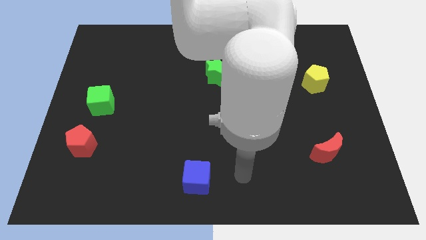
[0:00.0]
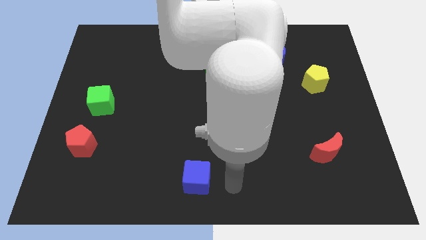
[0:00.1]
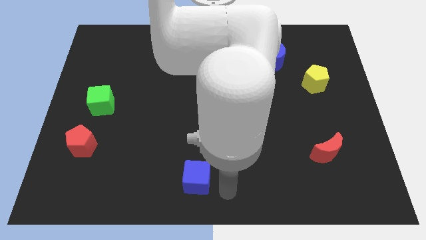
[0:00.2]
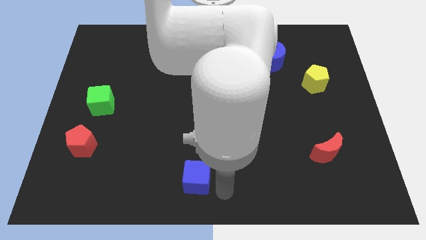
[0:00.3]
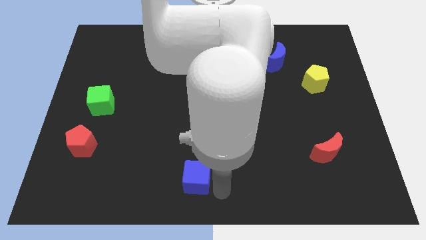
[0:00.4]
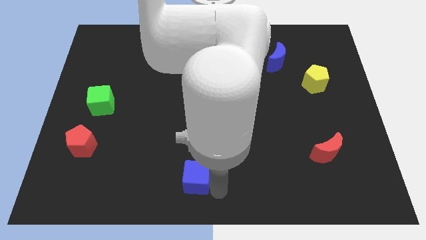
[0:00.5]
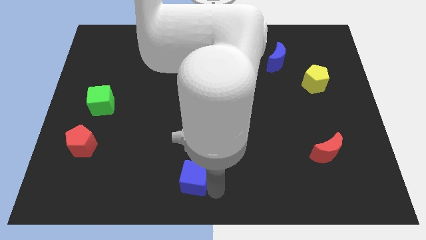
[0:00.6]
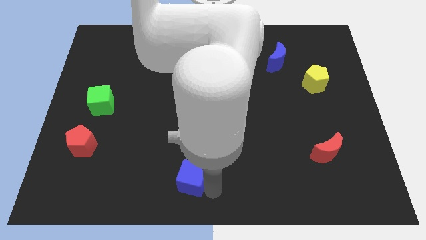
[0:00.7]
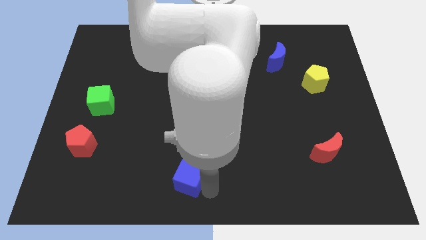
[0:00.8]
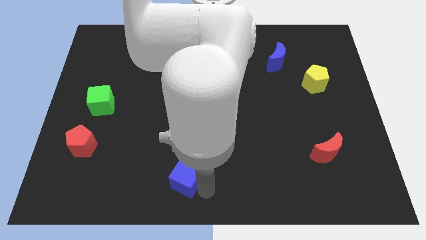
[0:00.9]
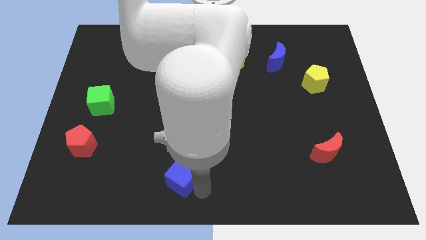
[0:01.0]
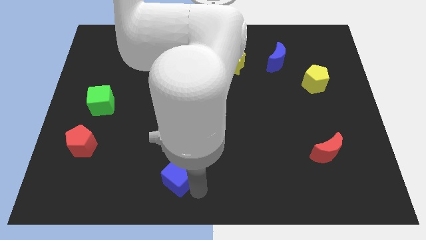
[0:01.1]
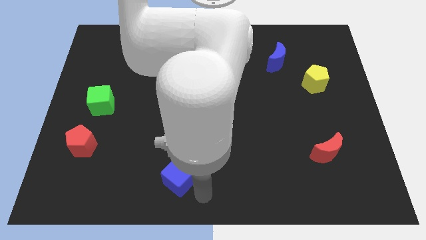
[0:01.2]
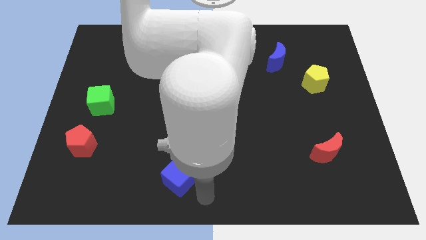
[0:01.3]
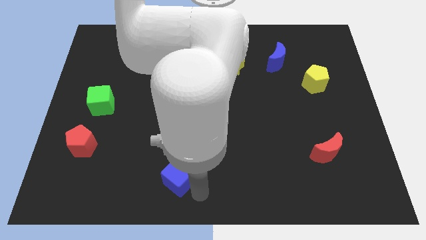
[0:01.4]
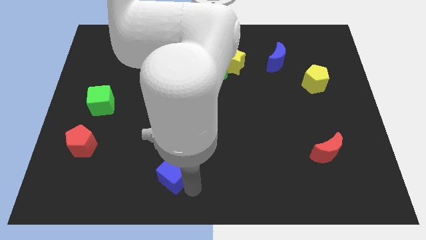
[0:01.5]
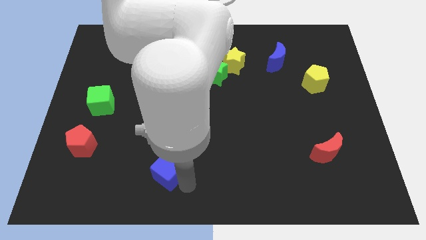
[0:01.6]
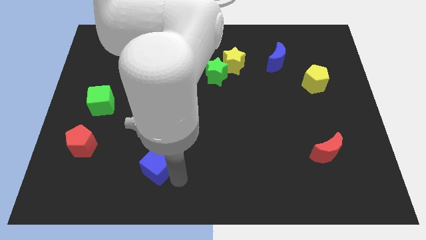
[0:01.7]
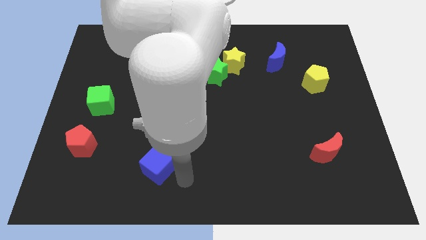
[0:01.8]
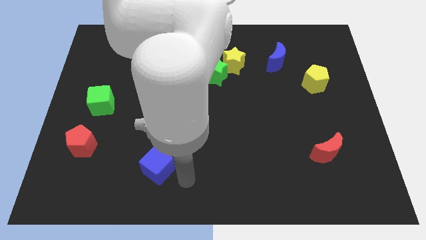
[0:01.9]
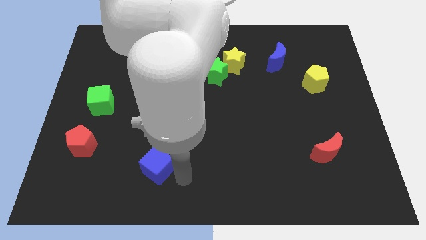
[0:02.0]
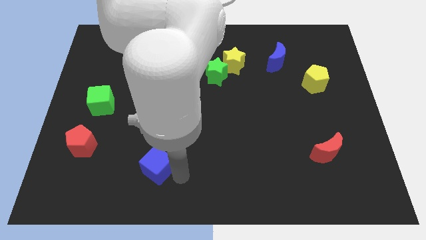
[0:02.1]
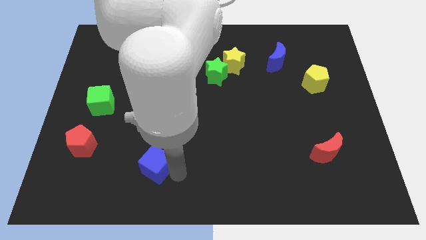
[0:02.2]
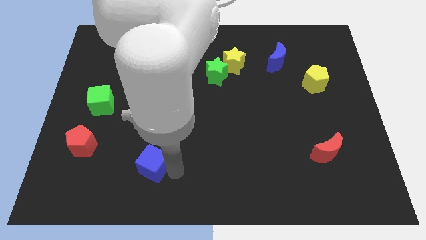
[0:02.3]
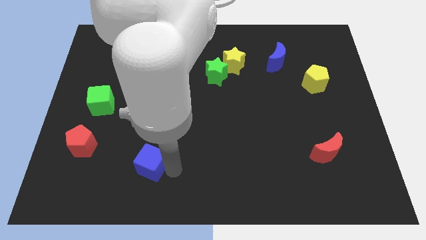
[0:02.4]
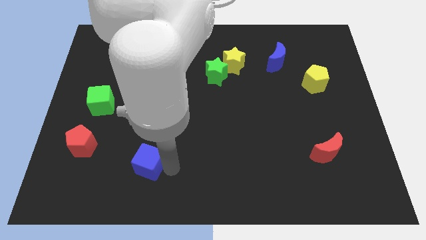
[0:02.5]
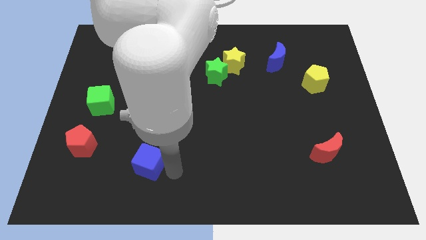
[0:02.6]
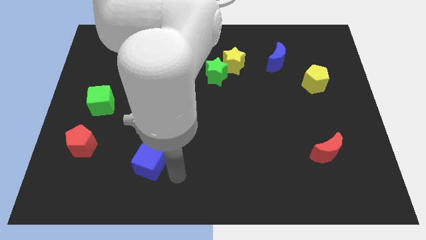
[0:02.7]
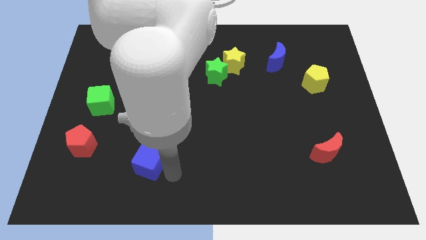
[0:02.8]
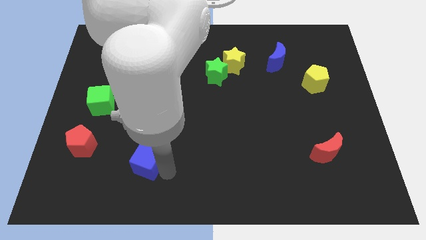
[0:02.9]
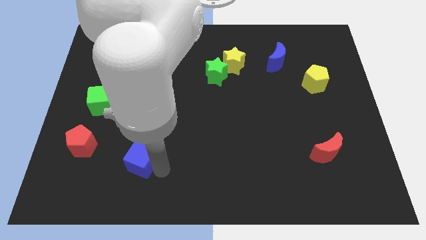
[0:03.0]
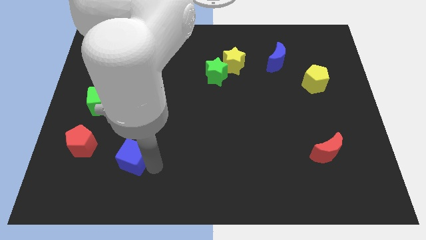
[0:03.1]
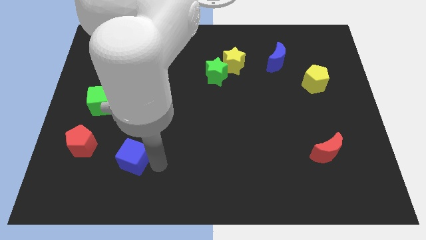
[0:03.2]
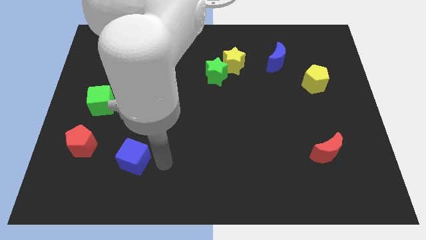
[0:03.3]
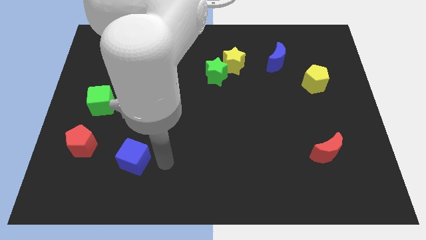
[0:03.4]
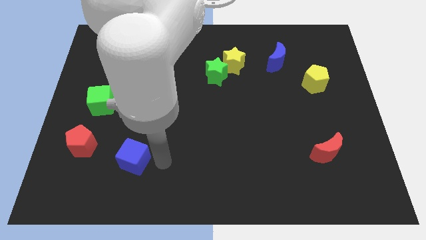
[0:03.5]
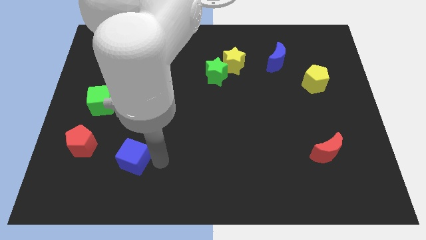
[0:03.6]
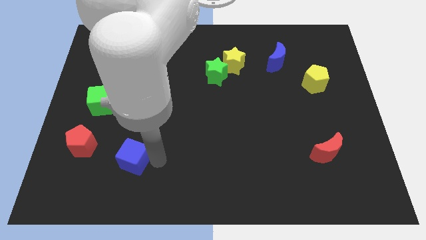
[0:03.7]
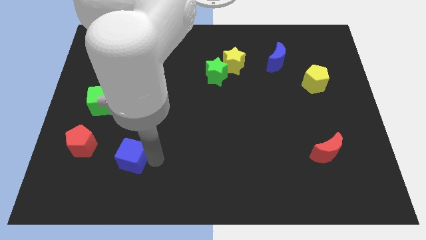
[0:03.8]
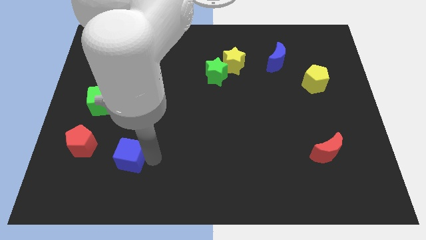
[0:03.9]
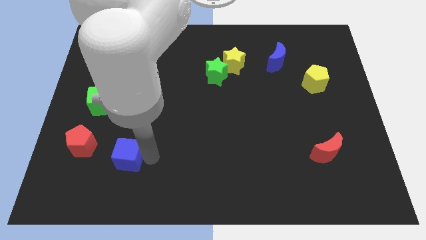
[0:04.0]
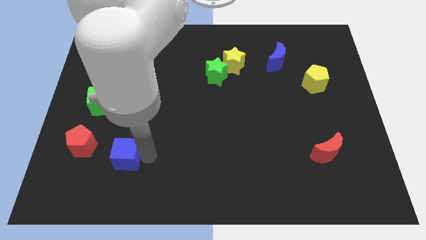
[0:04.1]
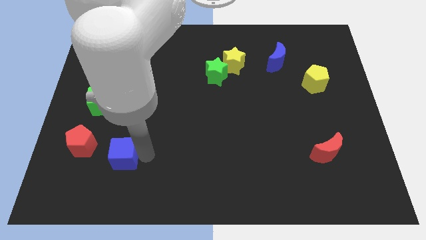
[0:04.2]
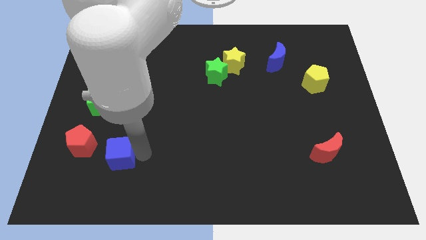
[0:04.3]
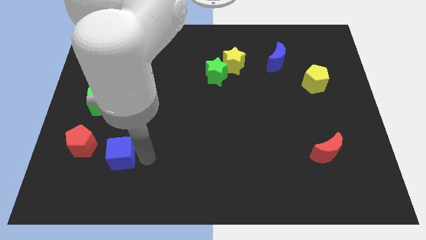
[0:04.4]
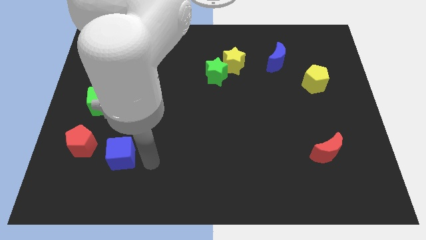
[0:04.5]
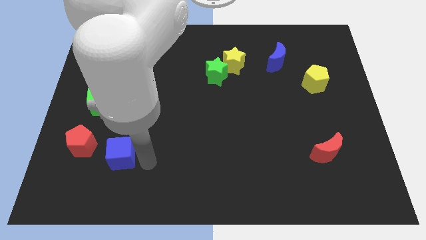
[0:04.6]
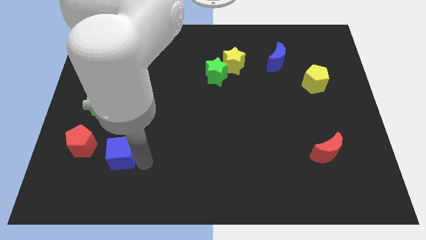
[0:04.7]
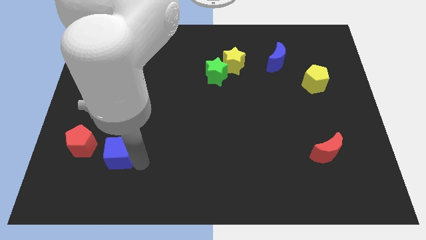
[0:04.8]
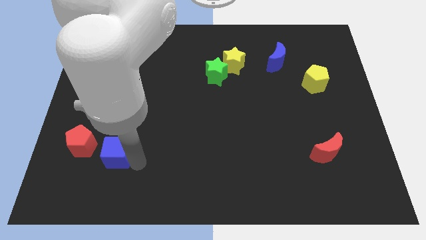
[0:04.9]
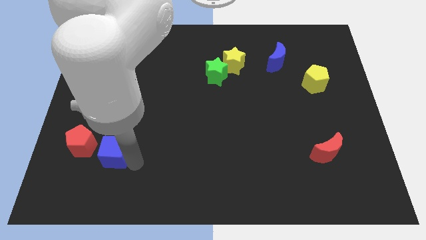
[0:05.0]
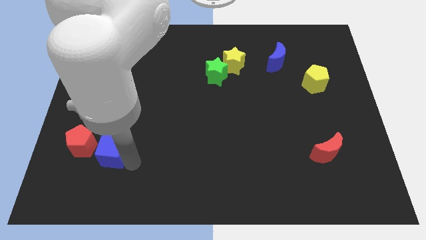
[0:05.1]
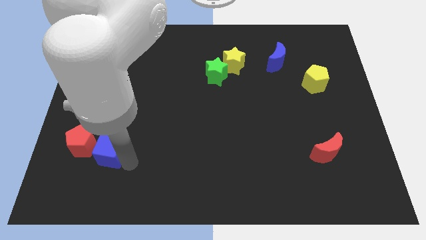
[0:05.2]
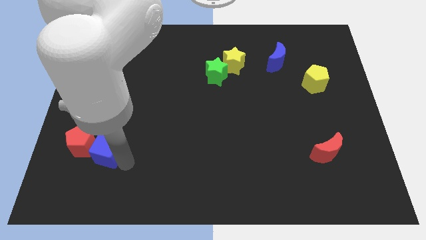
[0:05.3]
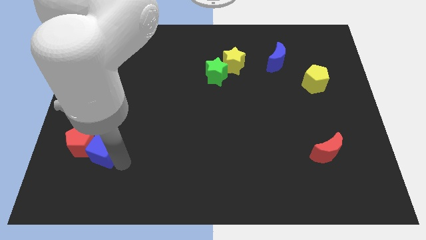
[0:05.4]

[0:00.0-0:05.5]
push the blue cube next to the red pentagon

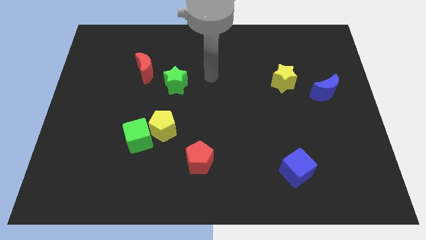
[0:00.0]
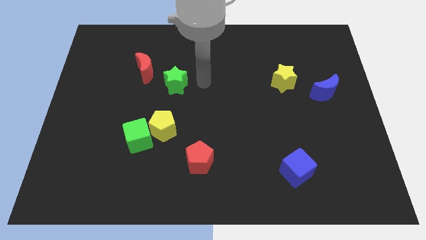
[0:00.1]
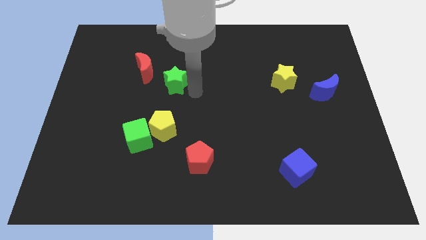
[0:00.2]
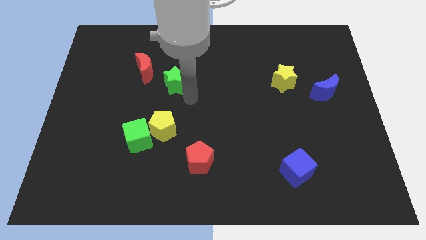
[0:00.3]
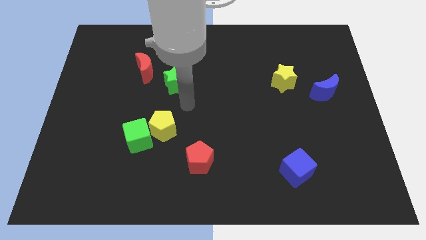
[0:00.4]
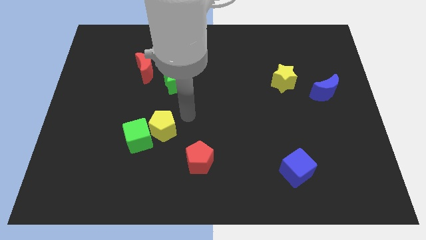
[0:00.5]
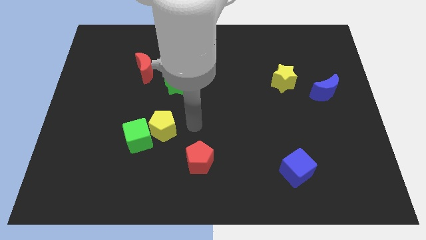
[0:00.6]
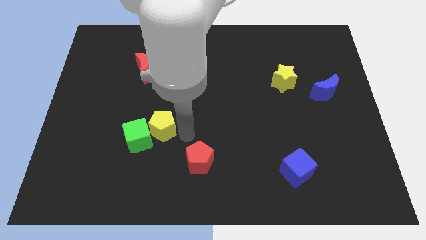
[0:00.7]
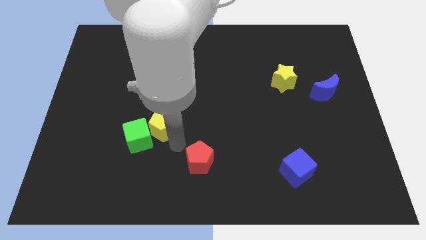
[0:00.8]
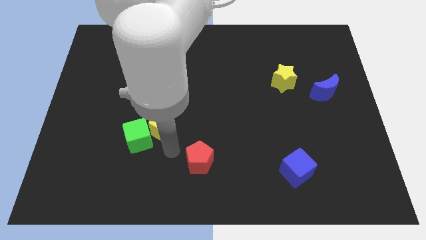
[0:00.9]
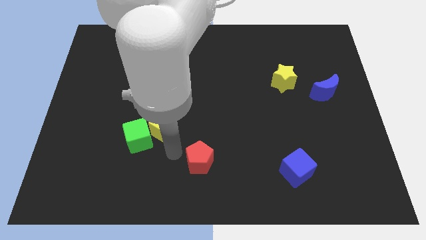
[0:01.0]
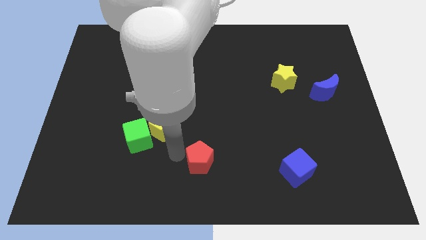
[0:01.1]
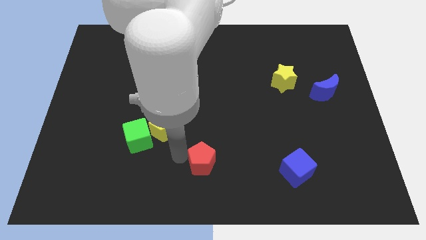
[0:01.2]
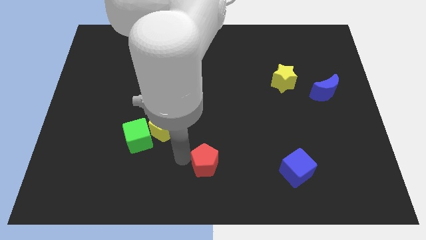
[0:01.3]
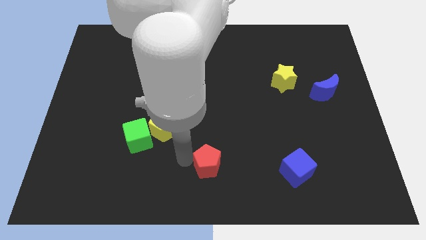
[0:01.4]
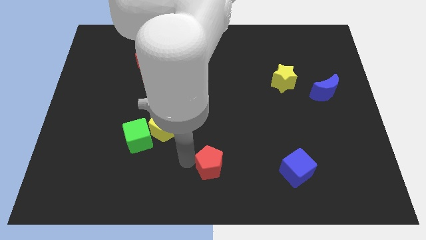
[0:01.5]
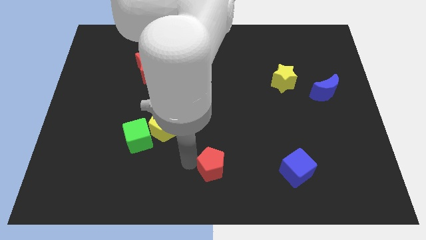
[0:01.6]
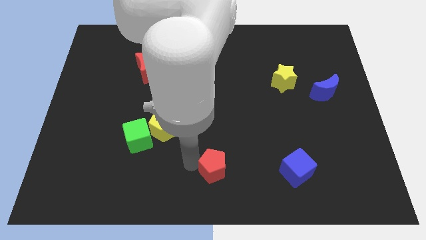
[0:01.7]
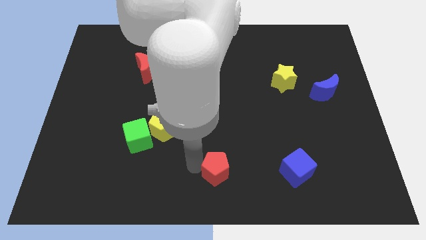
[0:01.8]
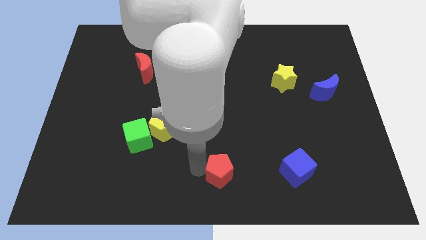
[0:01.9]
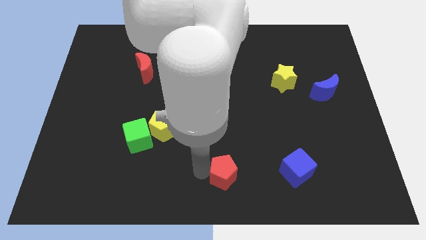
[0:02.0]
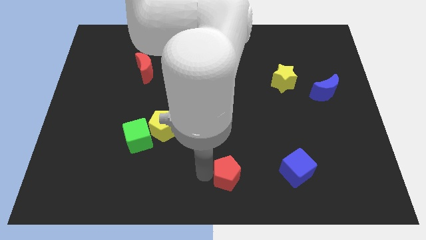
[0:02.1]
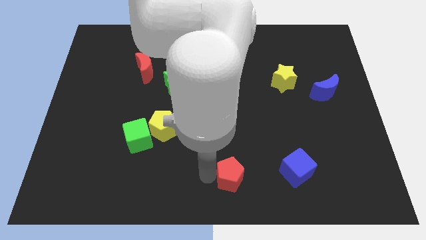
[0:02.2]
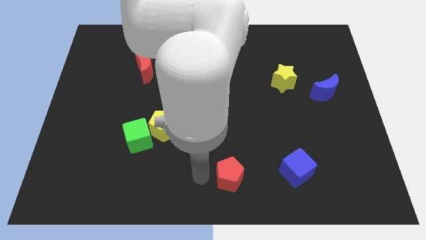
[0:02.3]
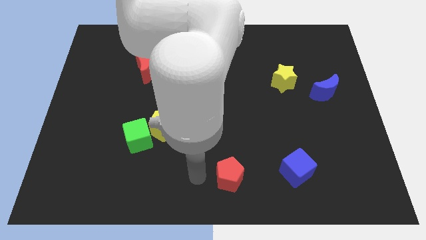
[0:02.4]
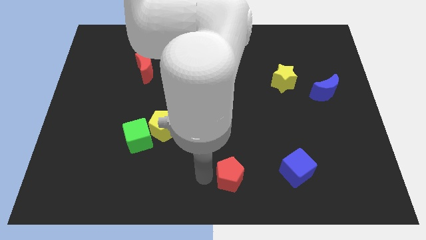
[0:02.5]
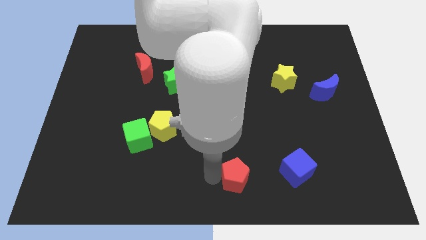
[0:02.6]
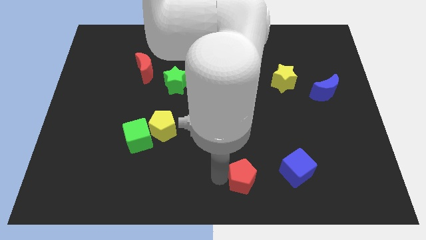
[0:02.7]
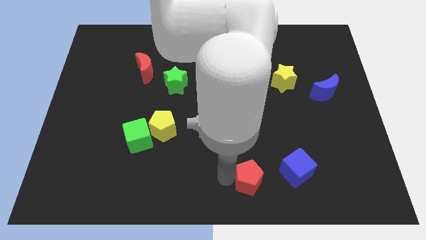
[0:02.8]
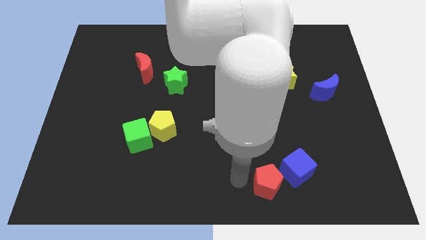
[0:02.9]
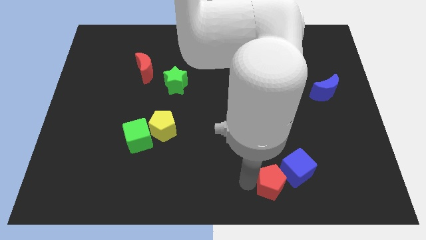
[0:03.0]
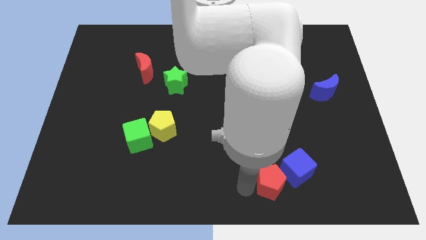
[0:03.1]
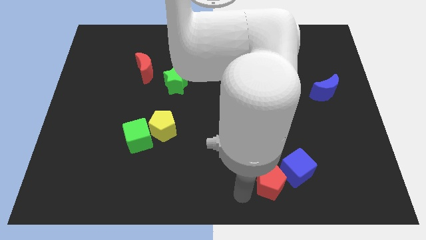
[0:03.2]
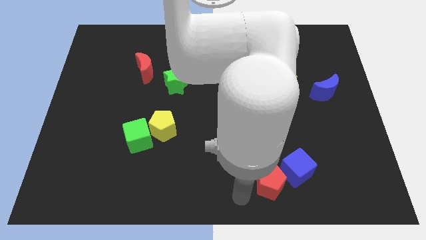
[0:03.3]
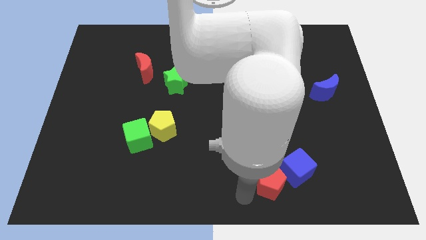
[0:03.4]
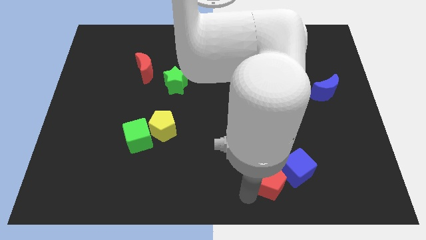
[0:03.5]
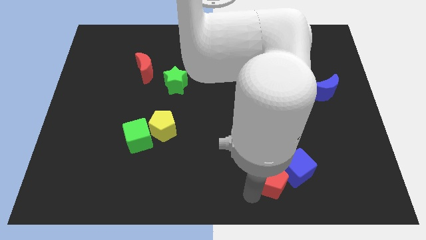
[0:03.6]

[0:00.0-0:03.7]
push the red pentagon close to the blue cube
